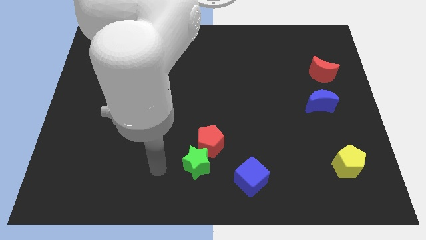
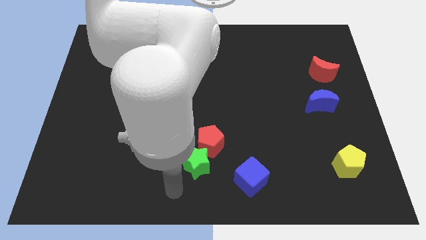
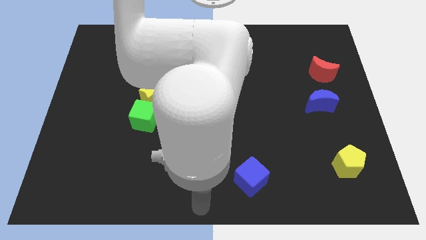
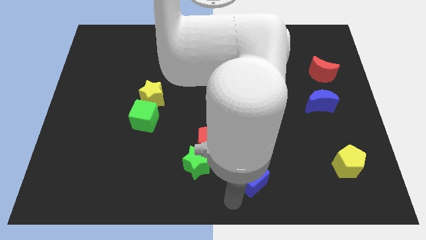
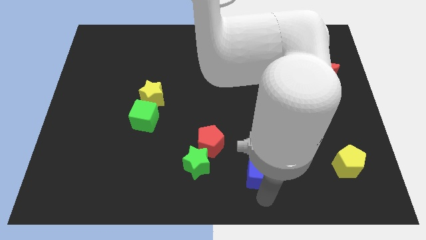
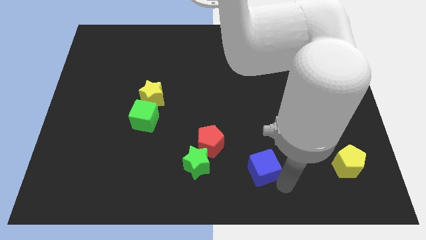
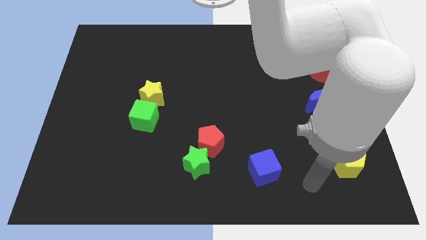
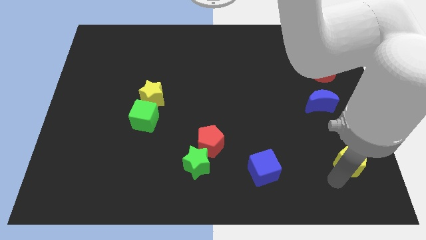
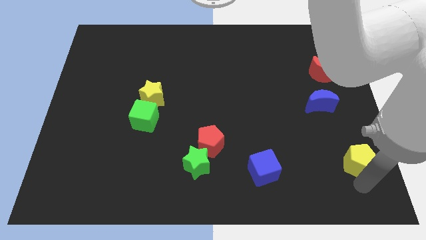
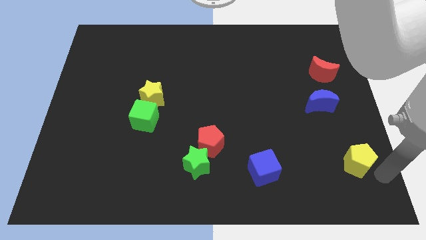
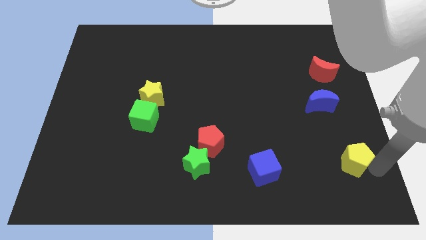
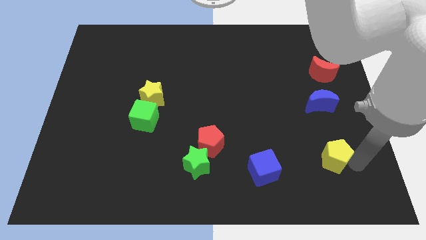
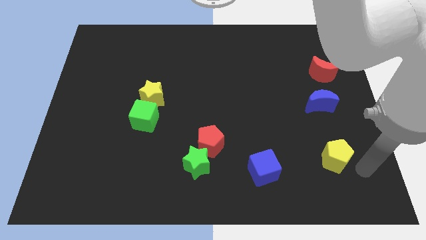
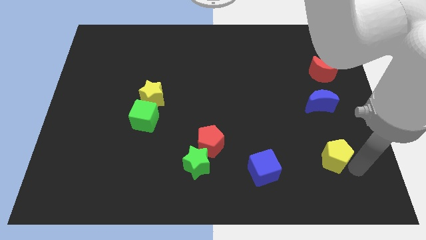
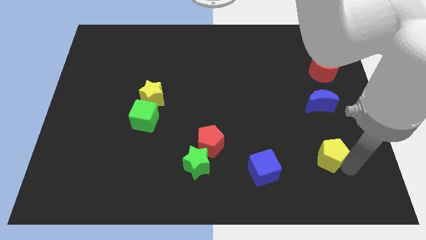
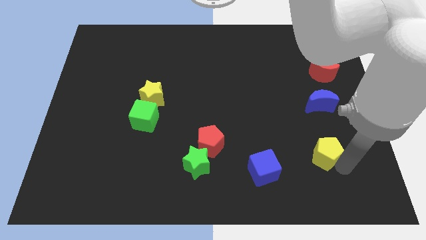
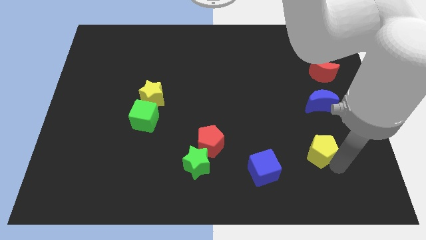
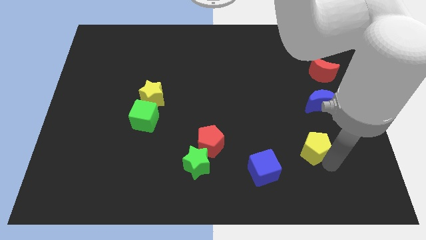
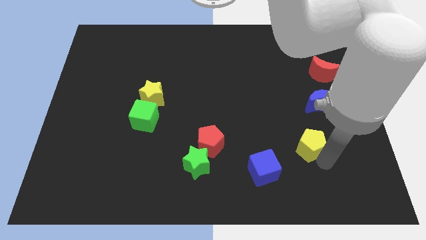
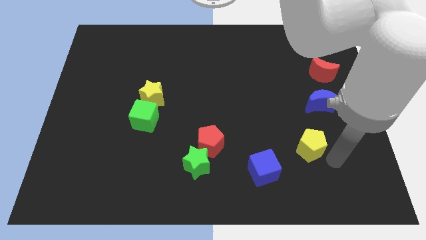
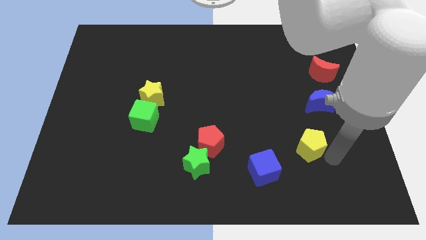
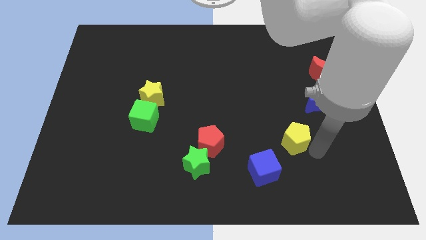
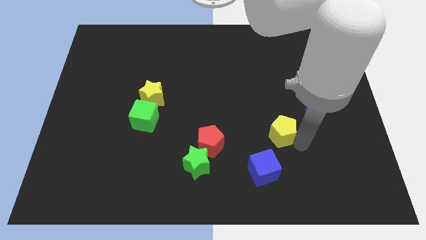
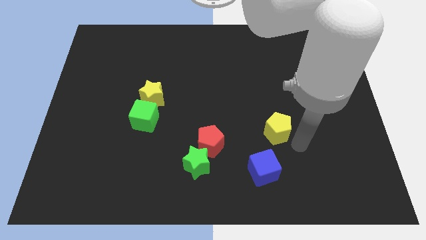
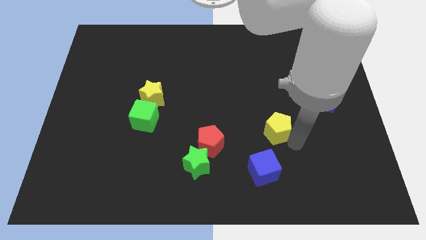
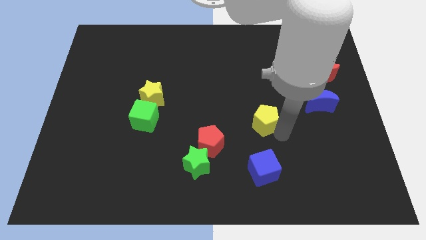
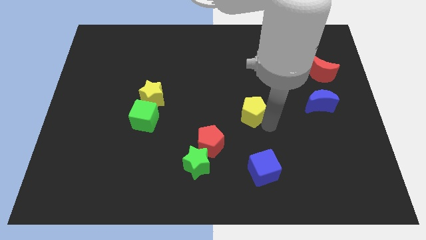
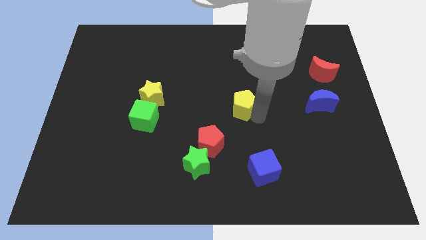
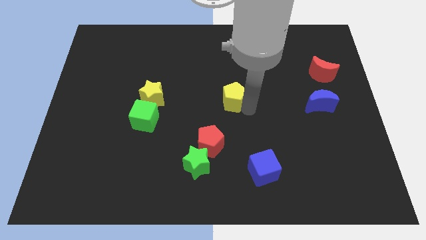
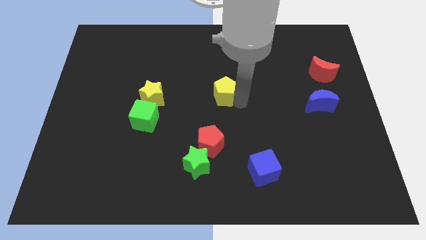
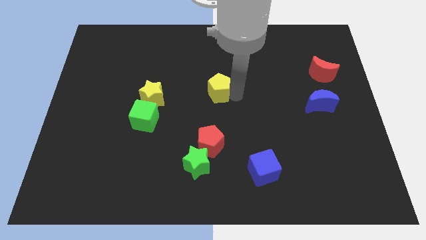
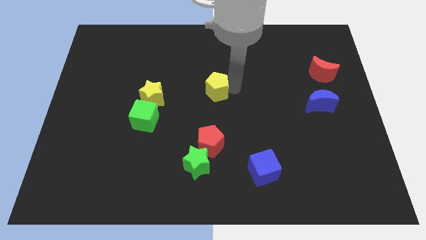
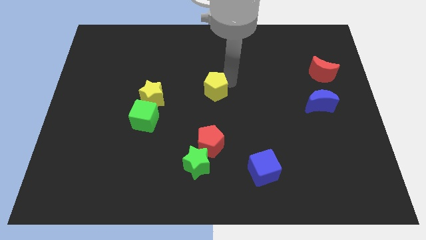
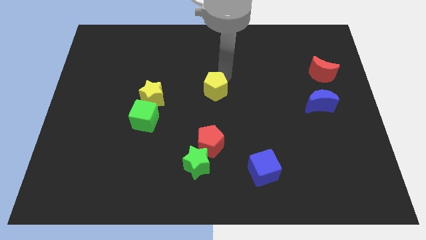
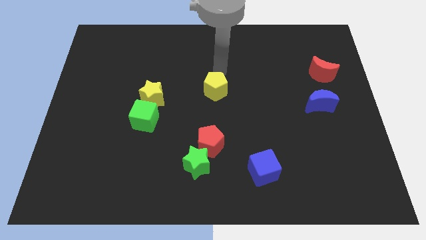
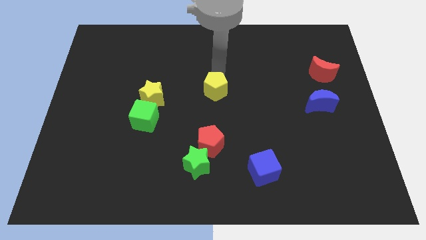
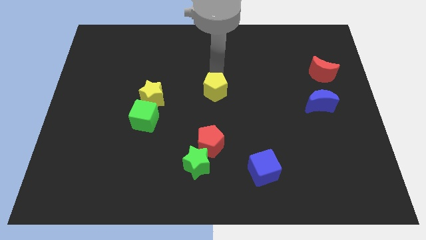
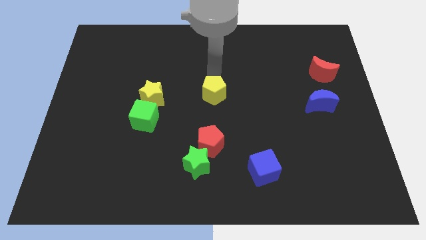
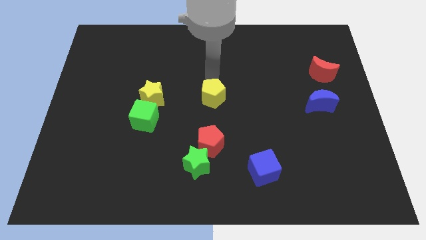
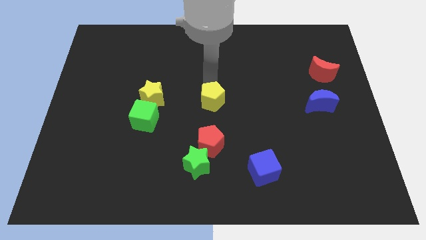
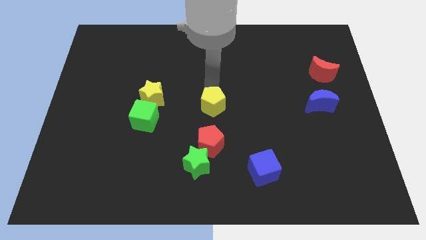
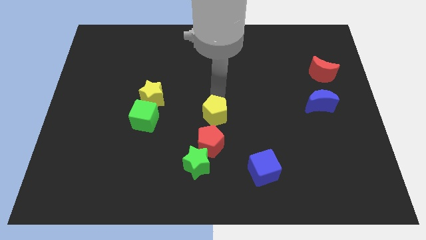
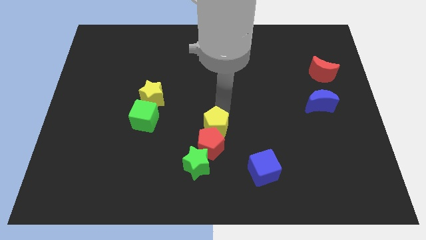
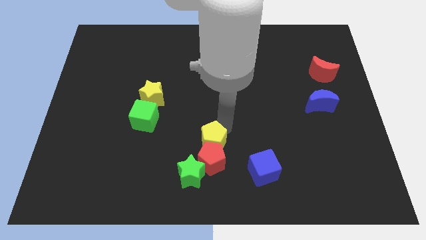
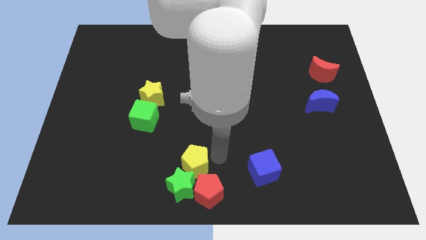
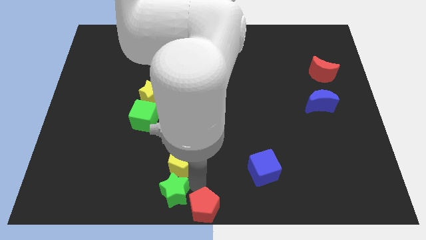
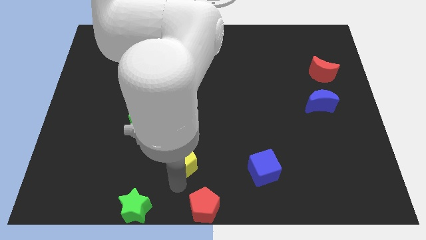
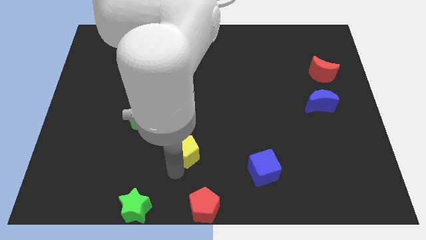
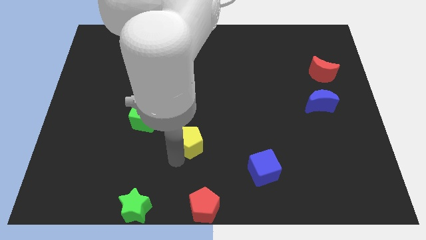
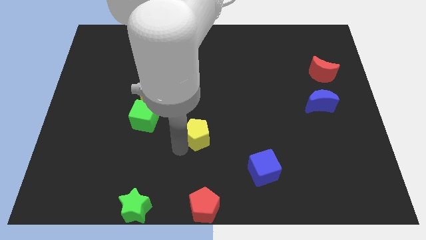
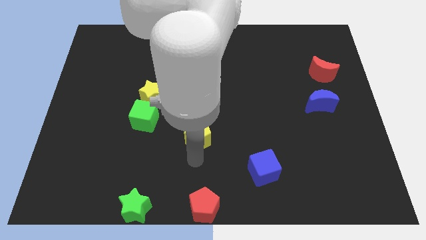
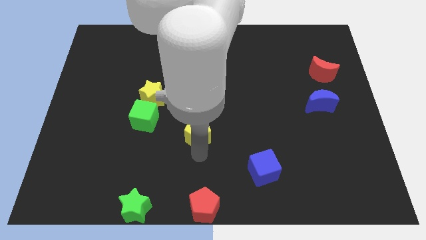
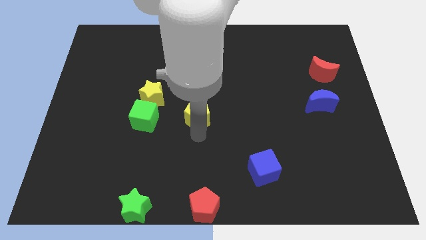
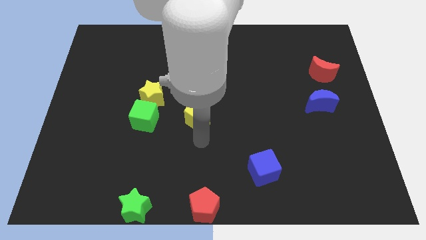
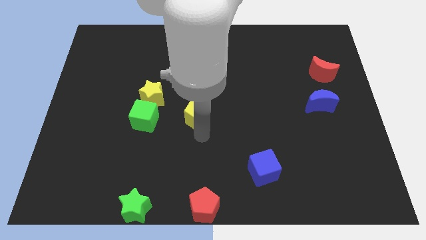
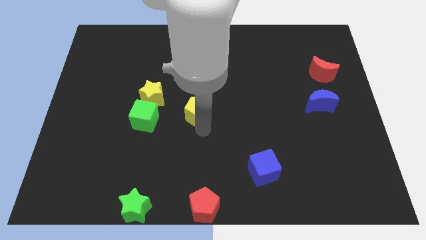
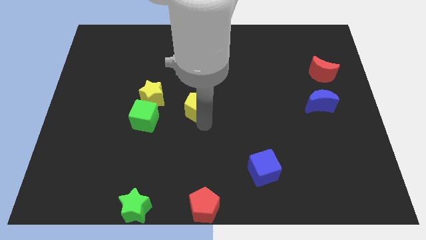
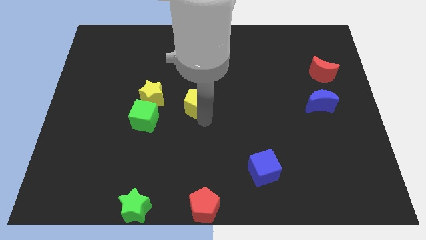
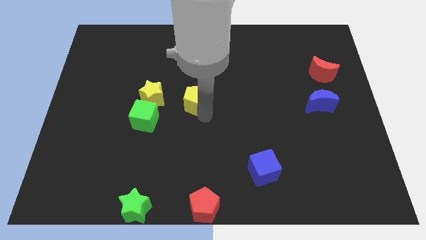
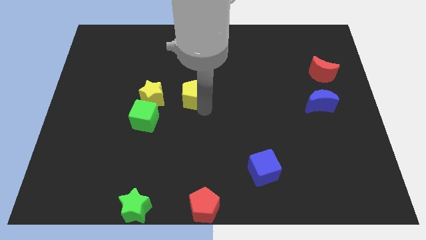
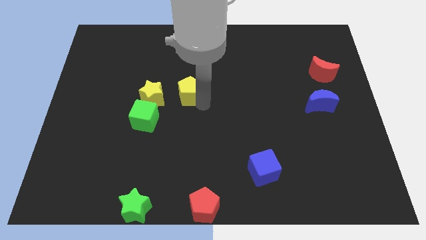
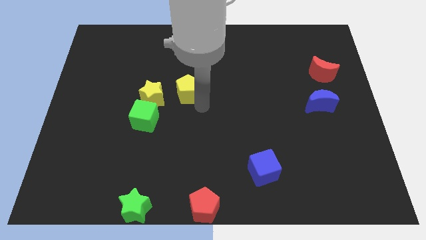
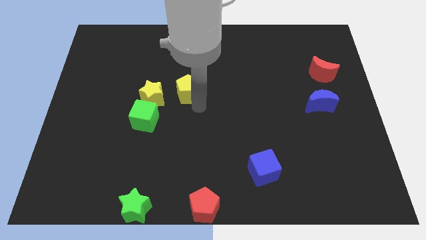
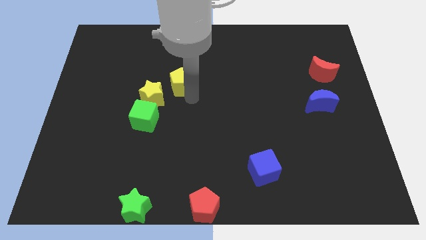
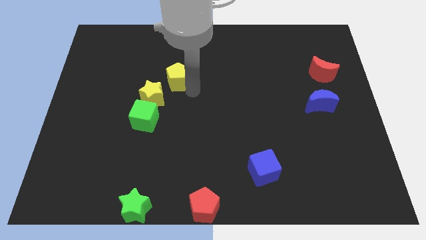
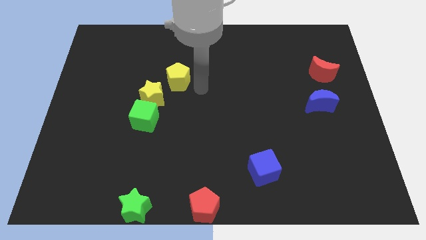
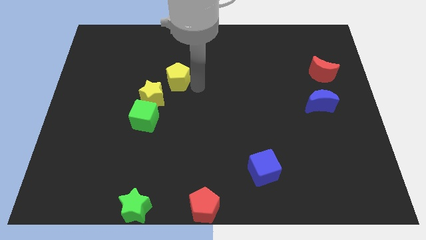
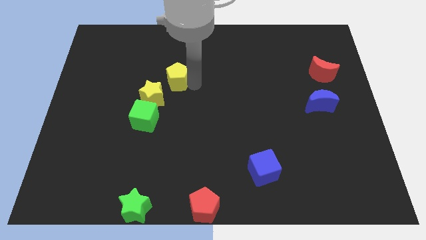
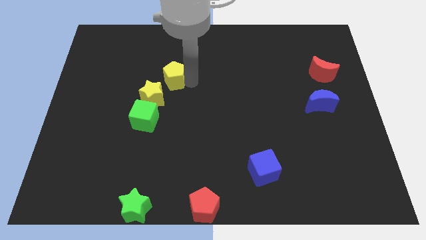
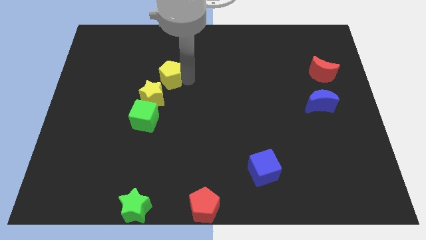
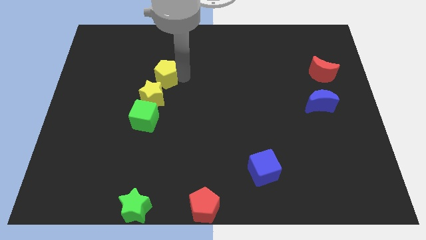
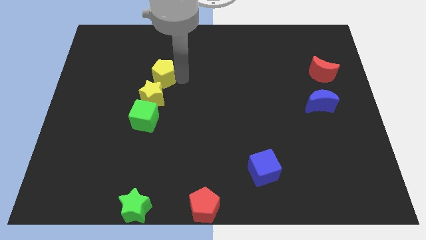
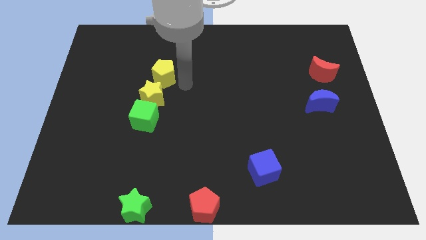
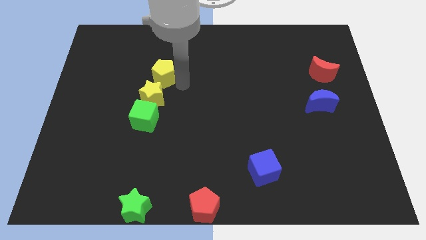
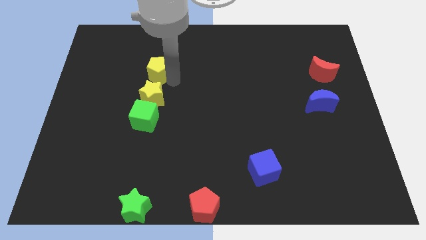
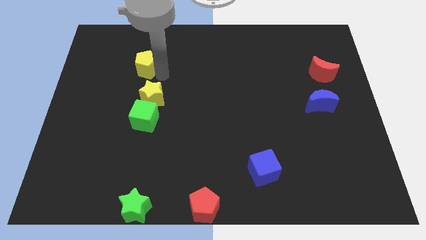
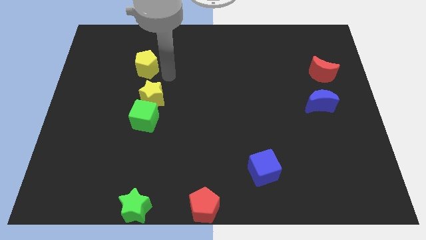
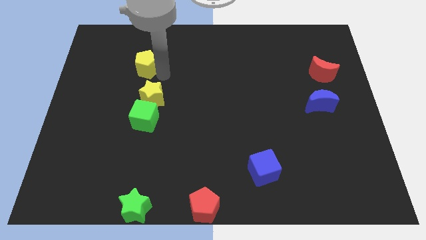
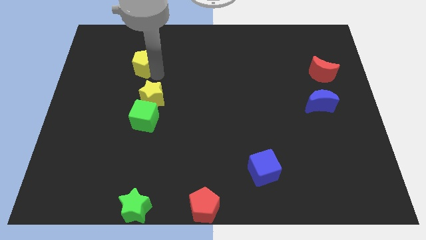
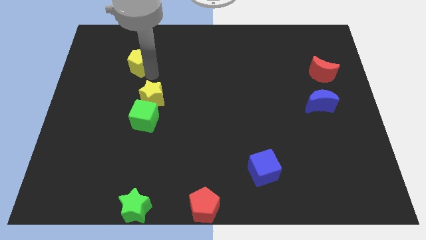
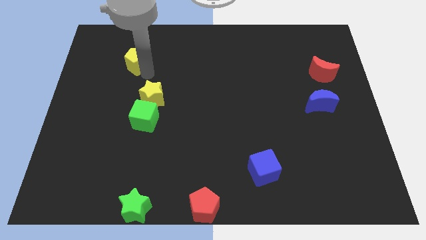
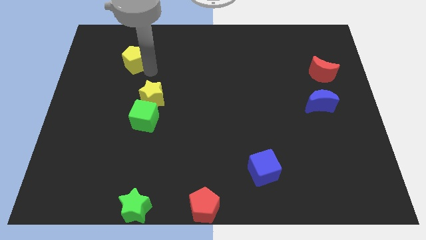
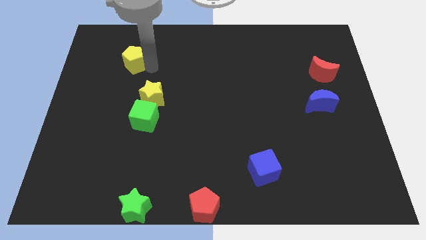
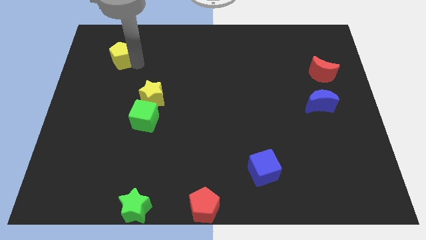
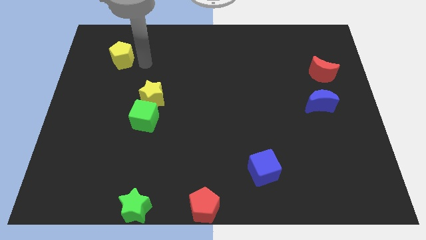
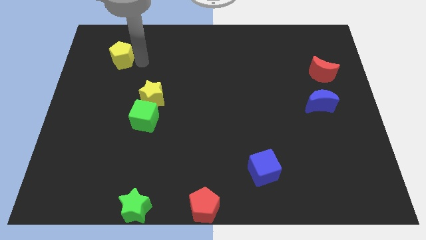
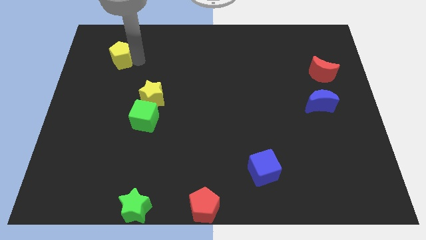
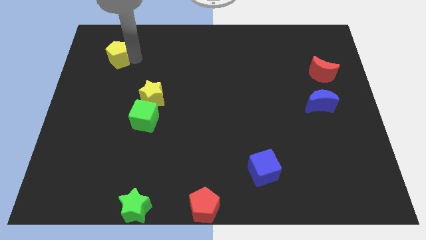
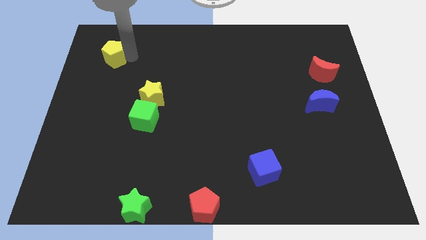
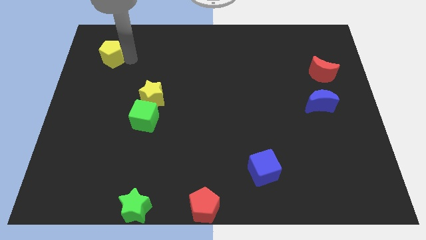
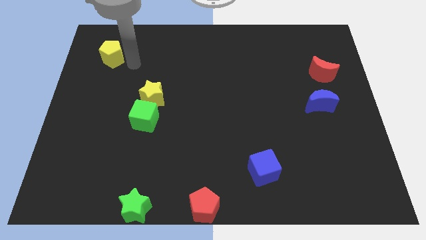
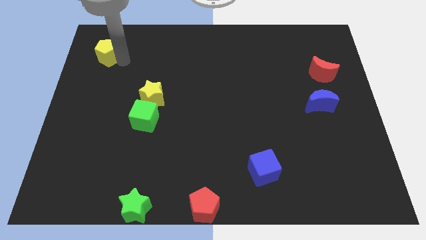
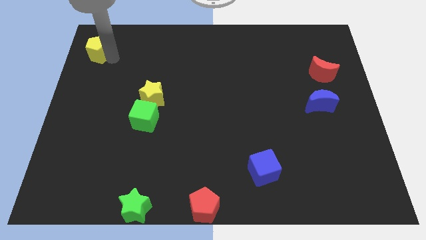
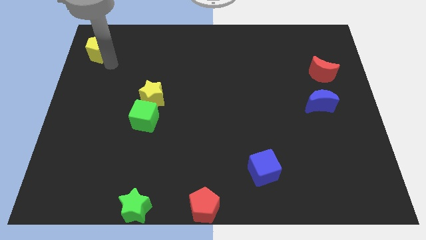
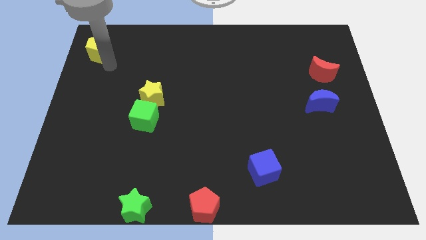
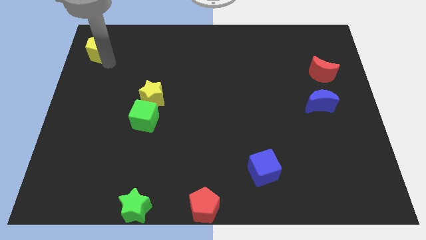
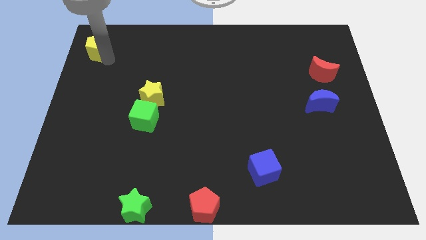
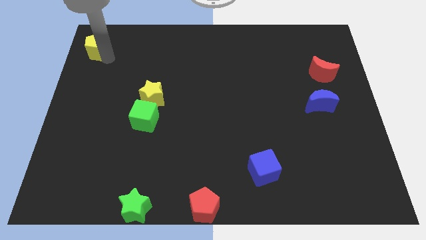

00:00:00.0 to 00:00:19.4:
push the yellow pentagon to the top left
